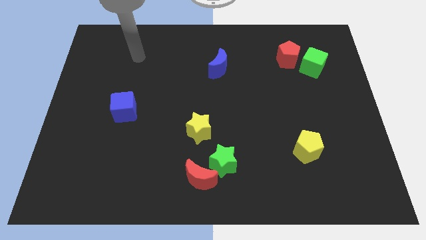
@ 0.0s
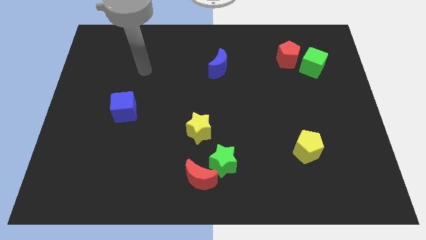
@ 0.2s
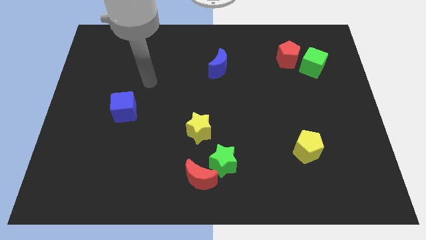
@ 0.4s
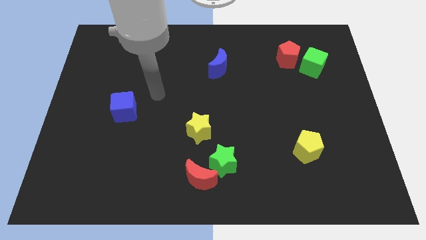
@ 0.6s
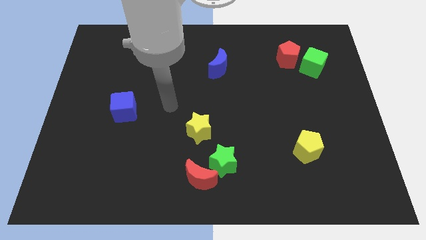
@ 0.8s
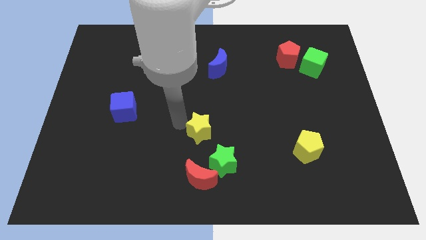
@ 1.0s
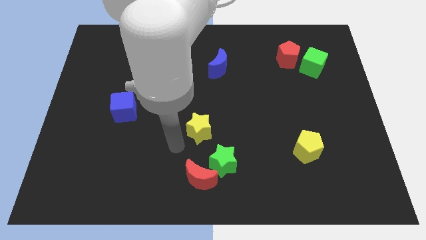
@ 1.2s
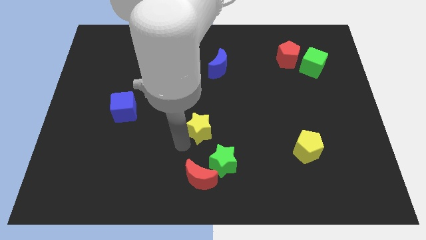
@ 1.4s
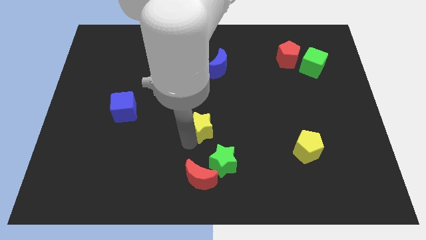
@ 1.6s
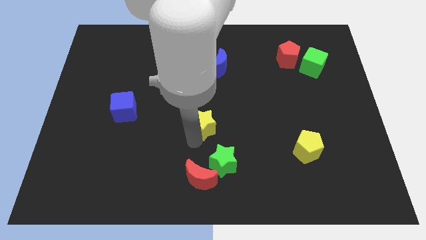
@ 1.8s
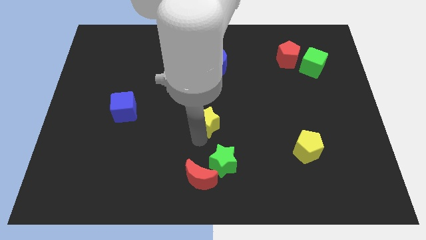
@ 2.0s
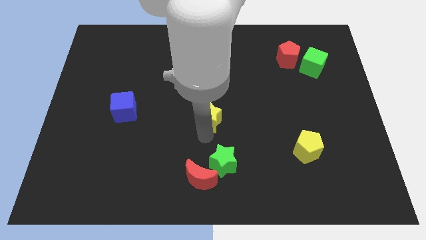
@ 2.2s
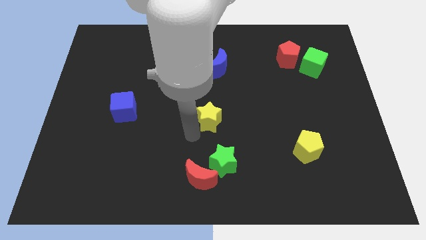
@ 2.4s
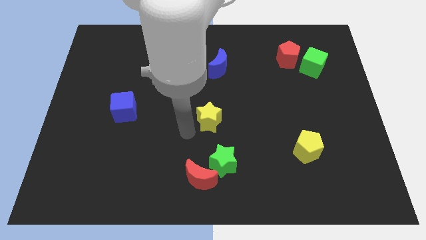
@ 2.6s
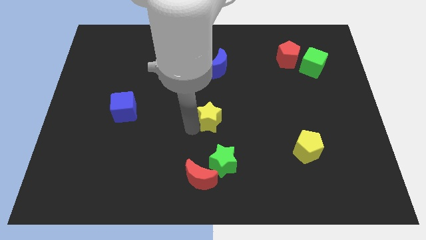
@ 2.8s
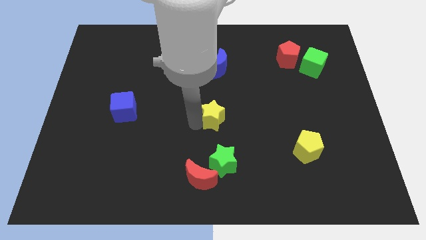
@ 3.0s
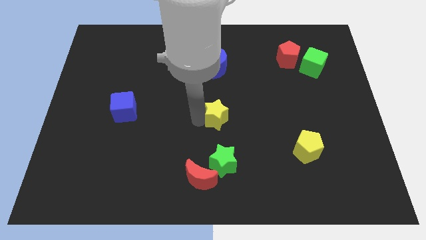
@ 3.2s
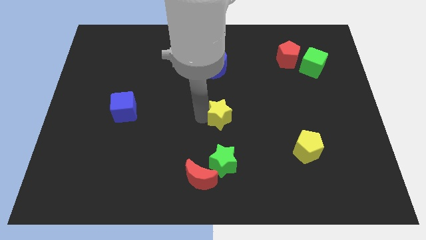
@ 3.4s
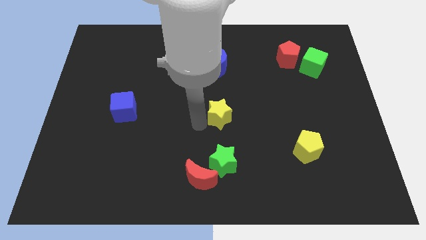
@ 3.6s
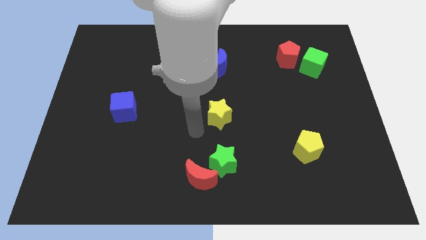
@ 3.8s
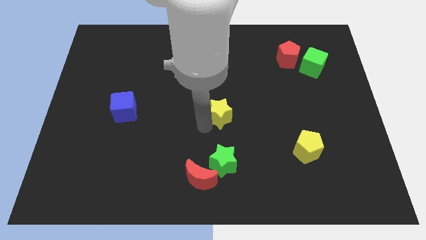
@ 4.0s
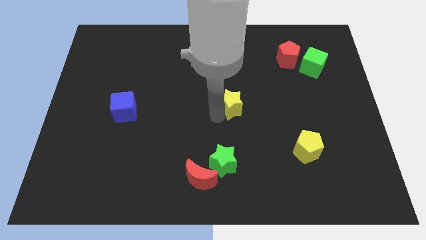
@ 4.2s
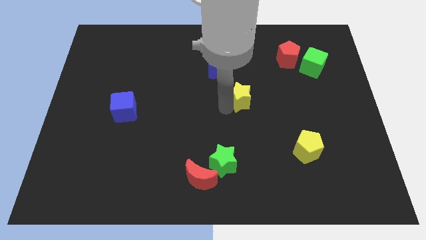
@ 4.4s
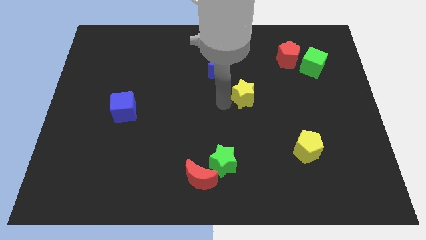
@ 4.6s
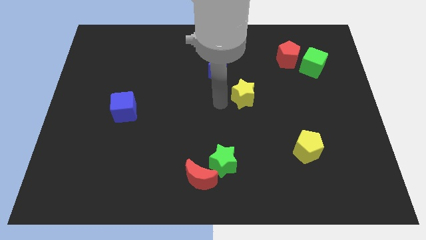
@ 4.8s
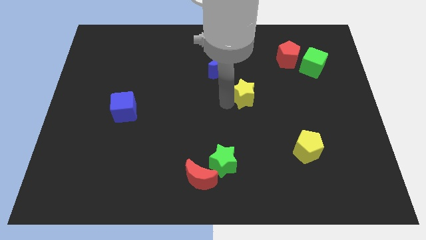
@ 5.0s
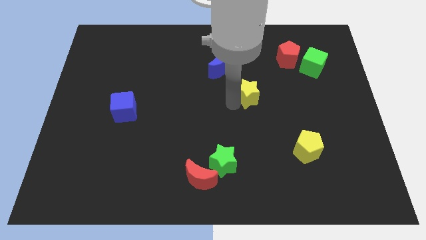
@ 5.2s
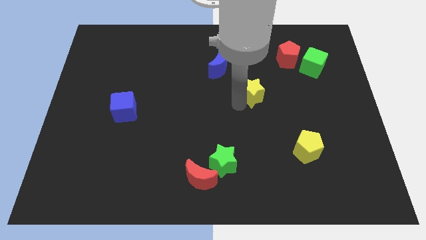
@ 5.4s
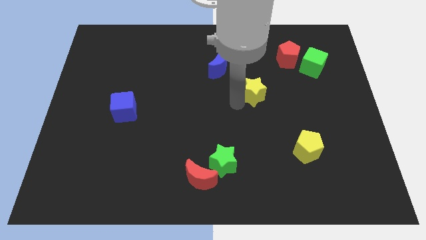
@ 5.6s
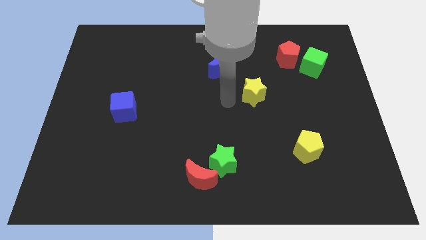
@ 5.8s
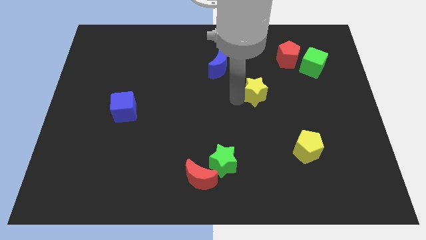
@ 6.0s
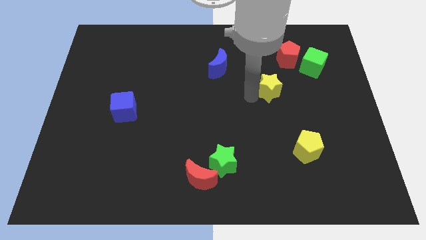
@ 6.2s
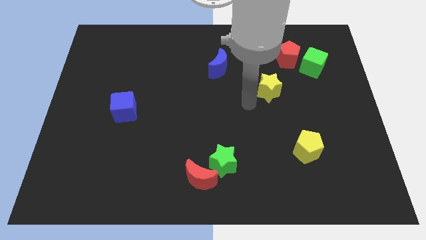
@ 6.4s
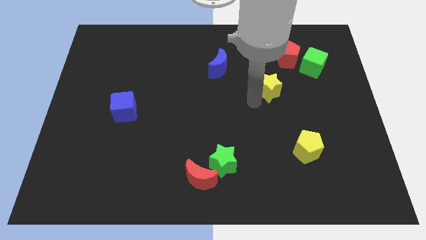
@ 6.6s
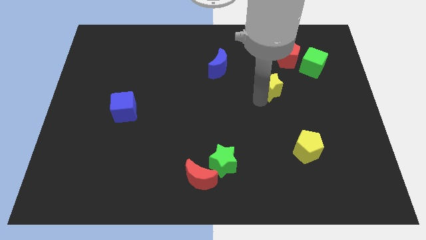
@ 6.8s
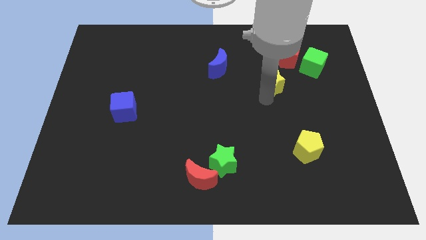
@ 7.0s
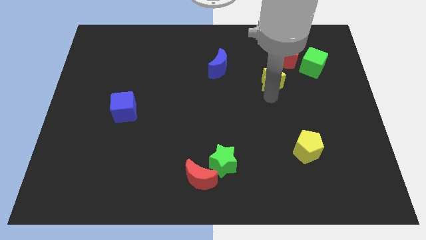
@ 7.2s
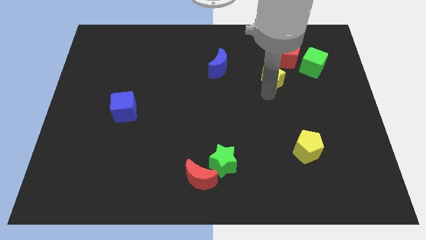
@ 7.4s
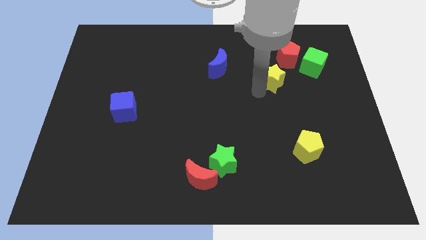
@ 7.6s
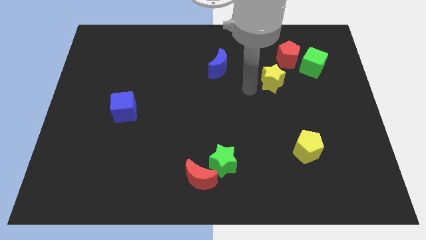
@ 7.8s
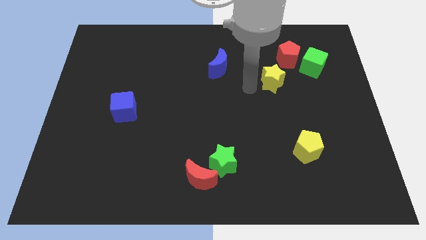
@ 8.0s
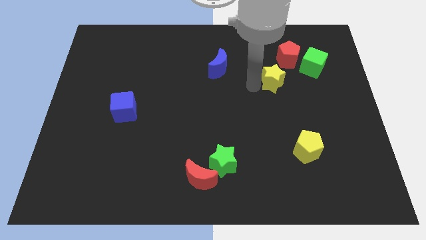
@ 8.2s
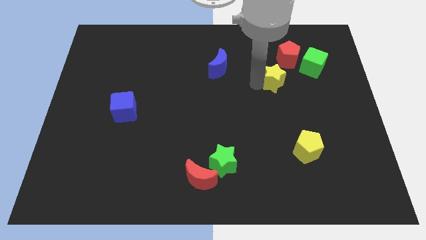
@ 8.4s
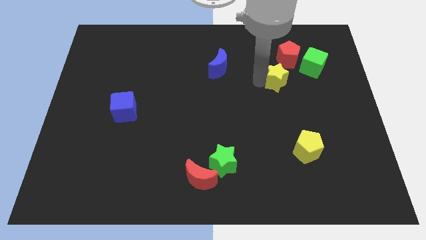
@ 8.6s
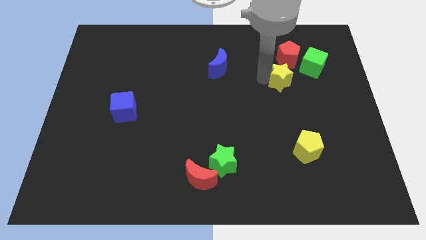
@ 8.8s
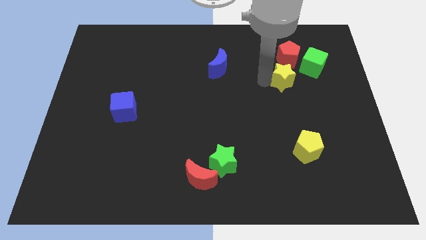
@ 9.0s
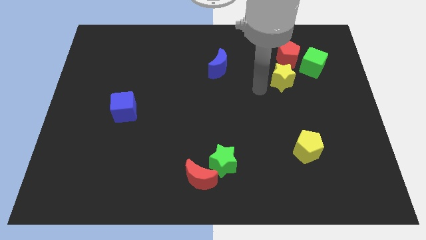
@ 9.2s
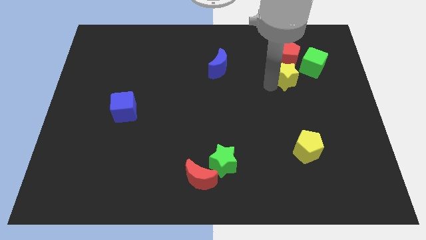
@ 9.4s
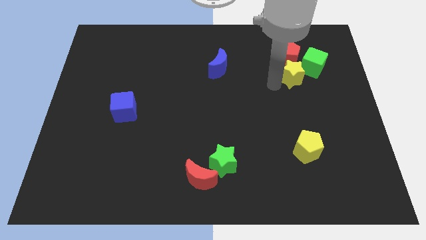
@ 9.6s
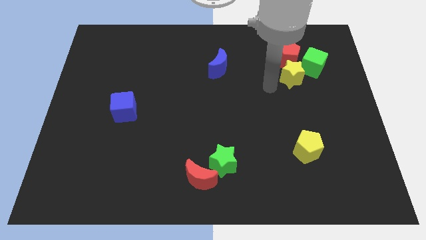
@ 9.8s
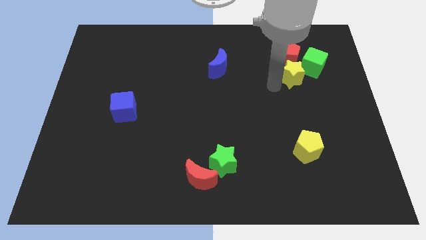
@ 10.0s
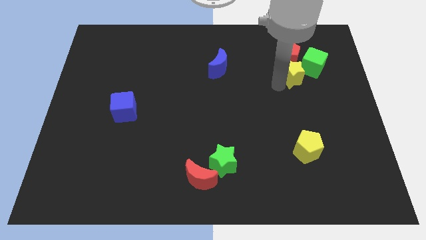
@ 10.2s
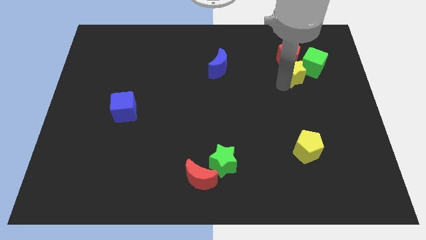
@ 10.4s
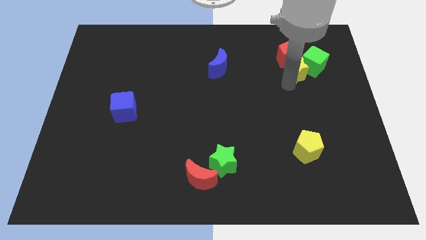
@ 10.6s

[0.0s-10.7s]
slide the yellow star towards the green cube

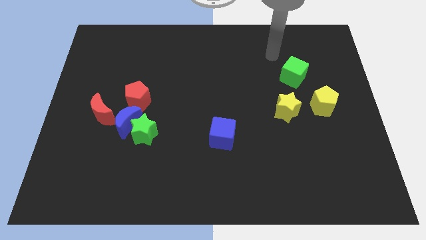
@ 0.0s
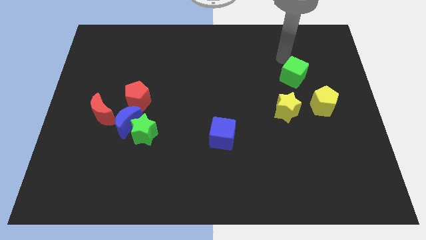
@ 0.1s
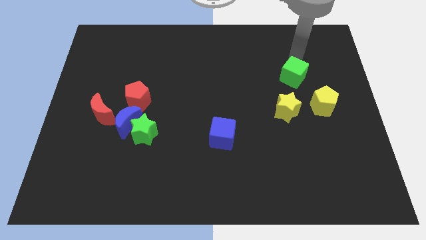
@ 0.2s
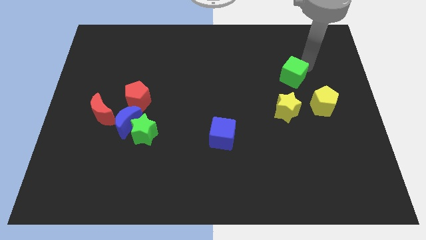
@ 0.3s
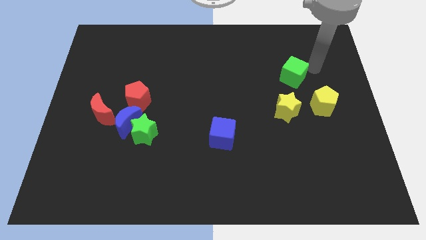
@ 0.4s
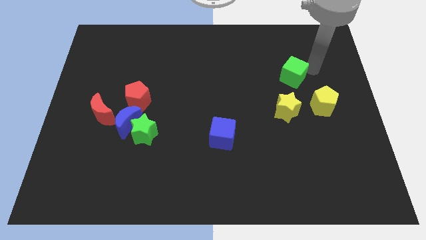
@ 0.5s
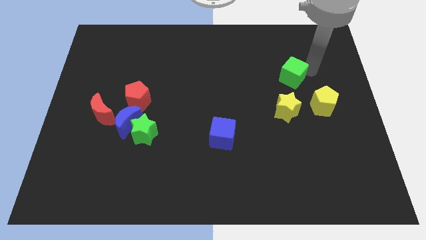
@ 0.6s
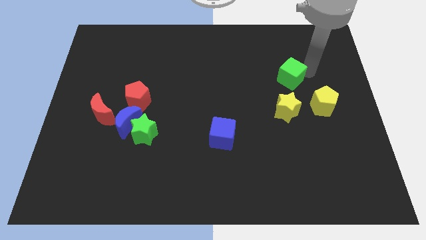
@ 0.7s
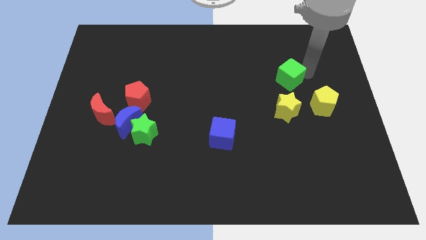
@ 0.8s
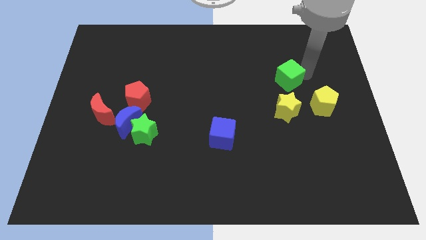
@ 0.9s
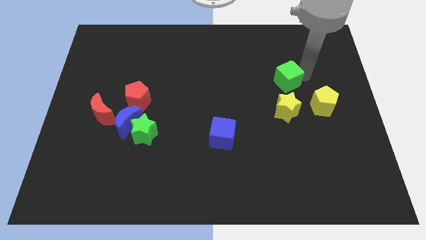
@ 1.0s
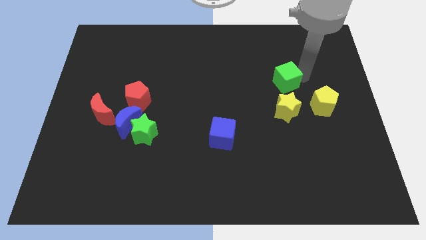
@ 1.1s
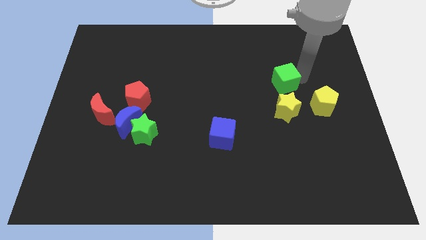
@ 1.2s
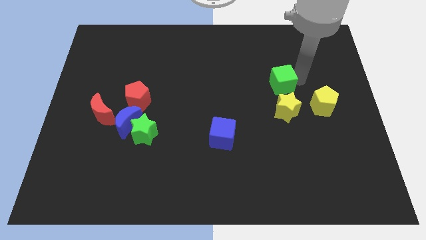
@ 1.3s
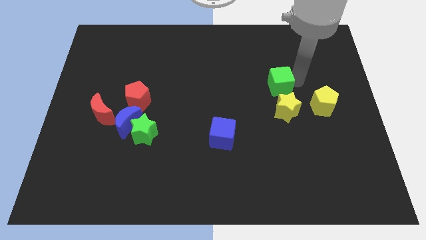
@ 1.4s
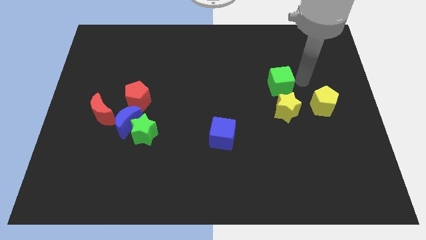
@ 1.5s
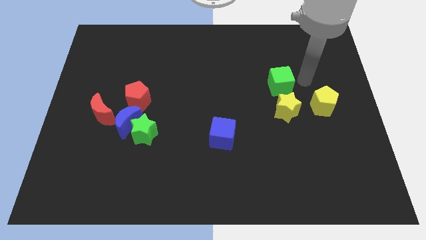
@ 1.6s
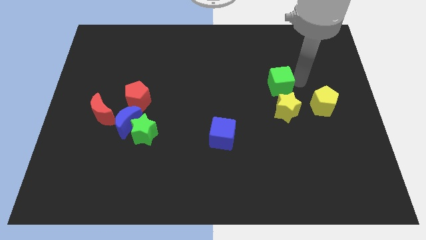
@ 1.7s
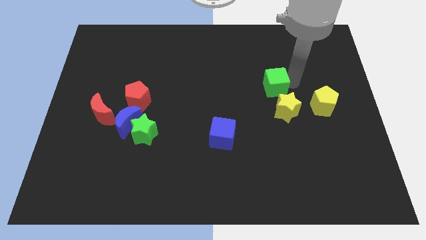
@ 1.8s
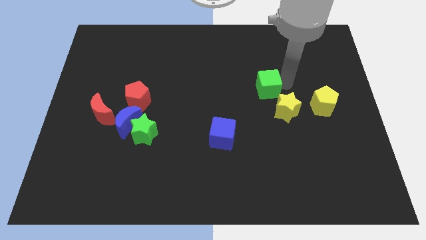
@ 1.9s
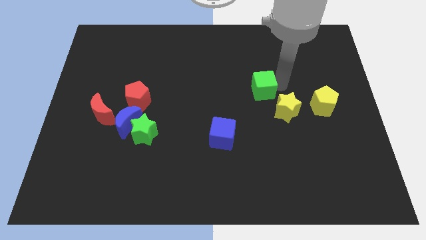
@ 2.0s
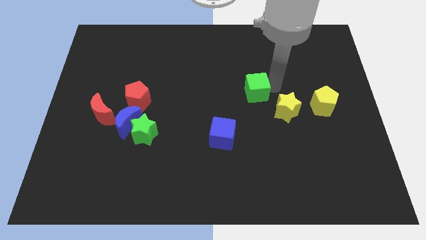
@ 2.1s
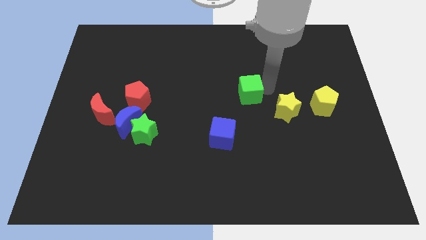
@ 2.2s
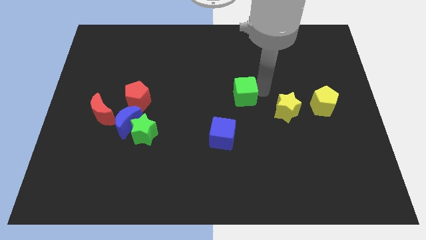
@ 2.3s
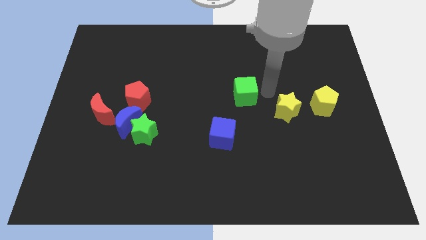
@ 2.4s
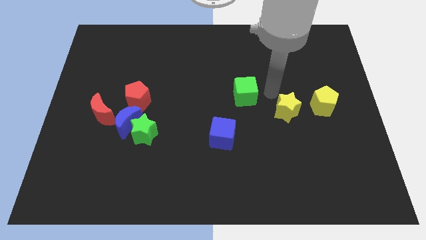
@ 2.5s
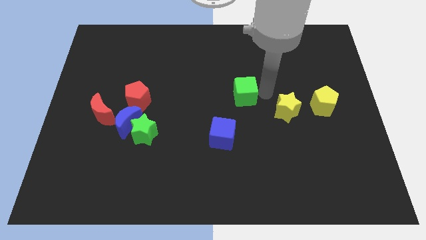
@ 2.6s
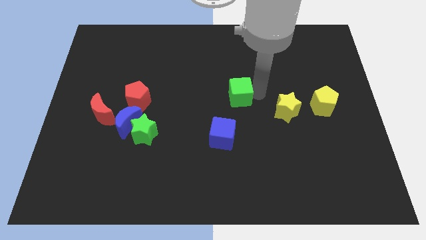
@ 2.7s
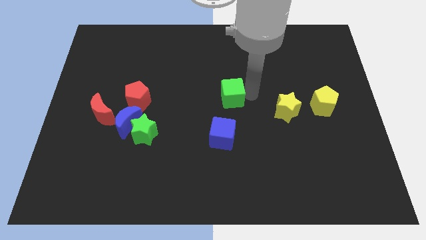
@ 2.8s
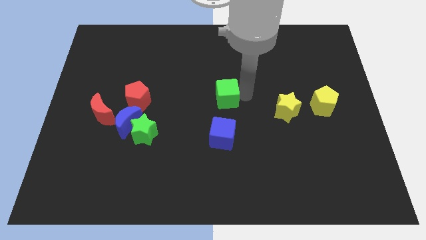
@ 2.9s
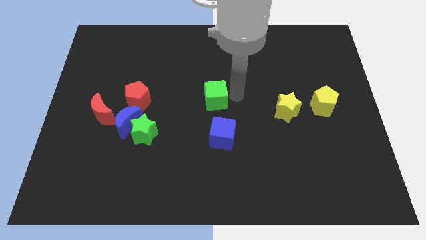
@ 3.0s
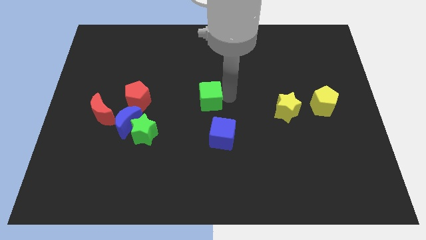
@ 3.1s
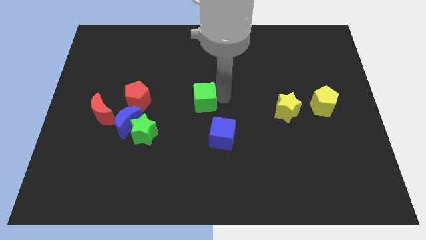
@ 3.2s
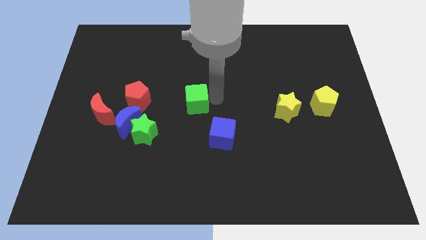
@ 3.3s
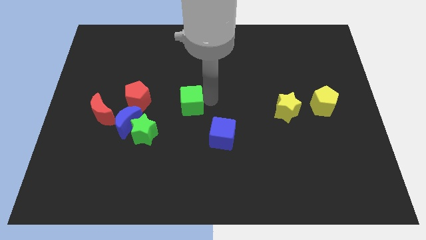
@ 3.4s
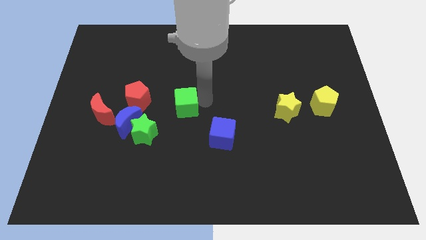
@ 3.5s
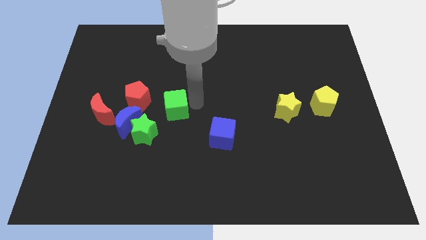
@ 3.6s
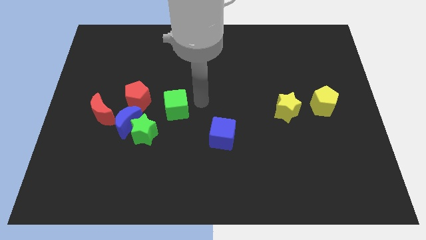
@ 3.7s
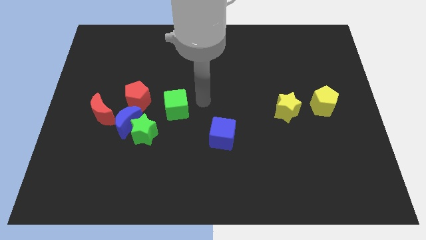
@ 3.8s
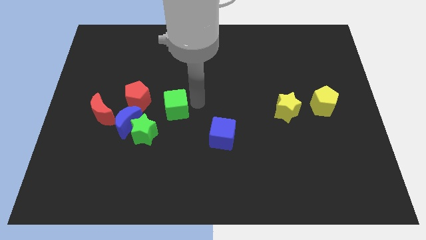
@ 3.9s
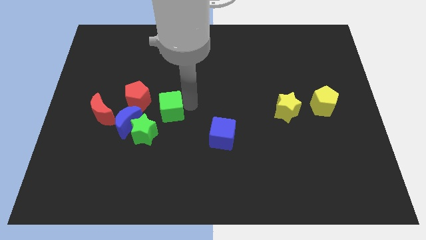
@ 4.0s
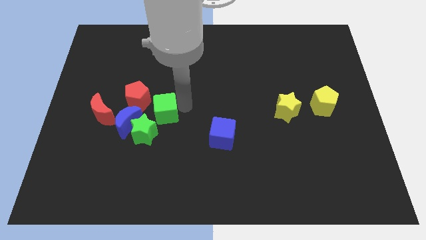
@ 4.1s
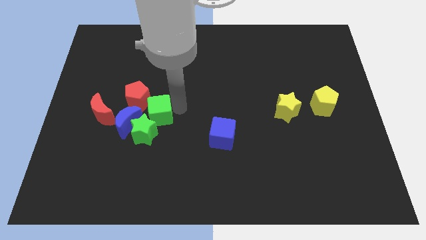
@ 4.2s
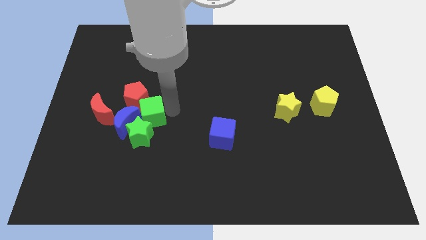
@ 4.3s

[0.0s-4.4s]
move the green cube towards the blue moon
